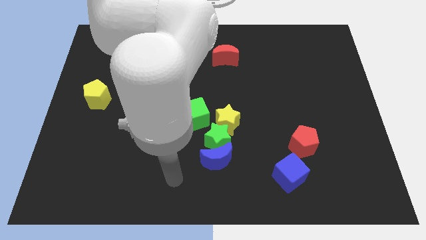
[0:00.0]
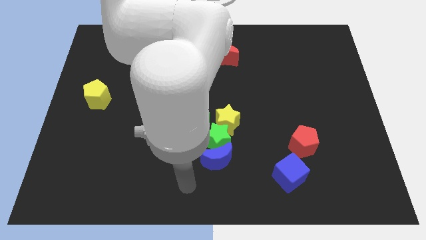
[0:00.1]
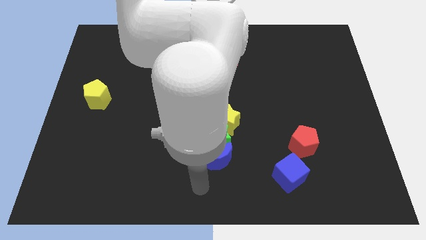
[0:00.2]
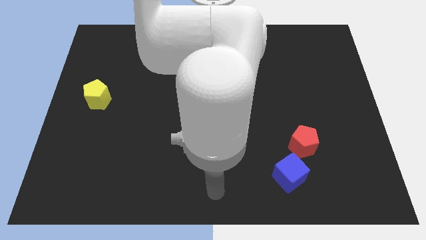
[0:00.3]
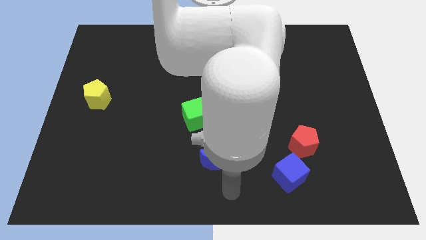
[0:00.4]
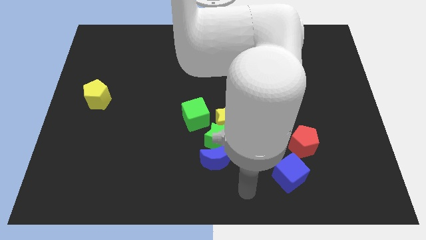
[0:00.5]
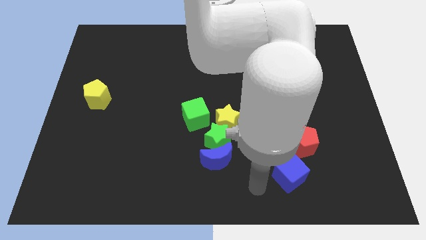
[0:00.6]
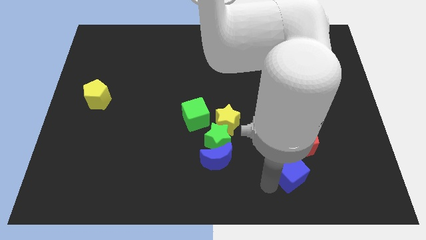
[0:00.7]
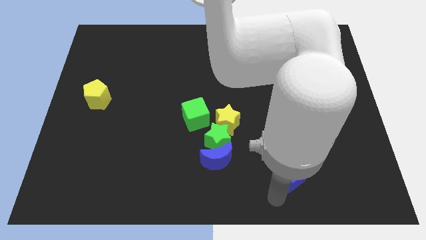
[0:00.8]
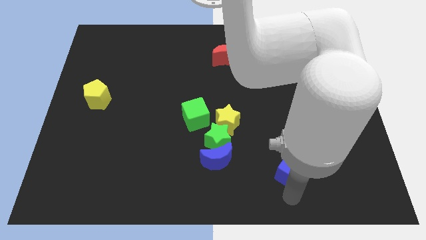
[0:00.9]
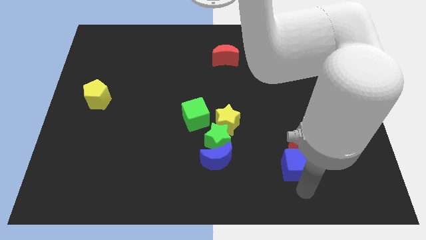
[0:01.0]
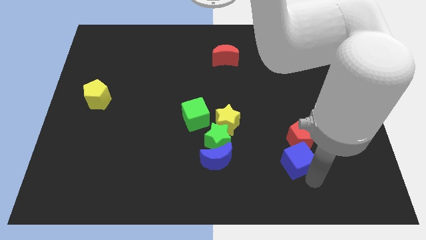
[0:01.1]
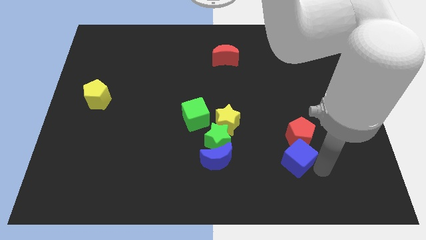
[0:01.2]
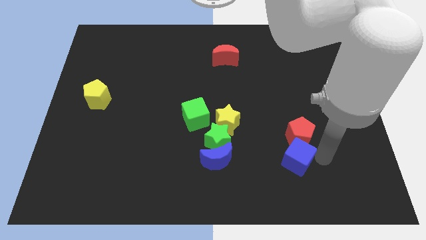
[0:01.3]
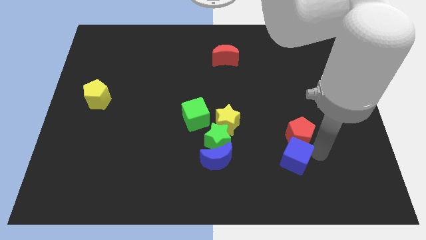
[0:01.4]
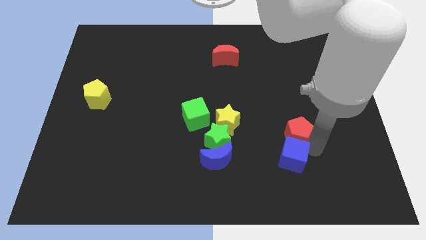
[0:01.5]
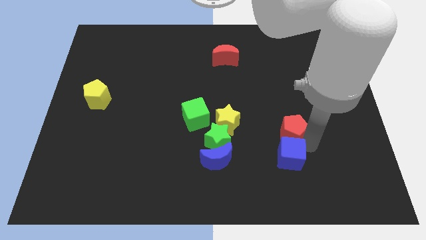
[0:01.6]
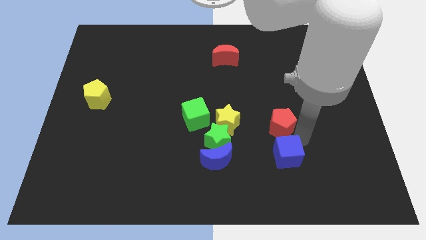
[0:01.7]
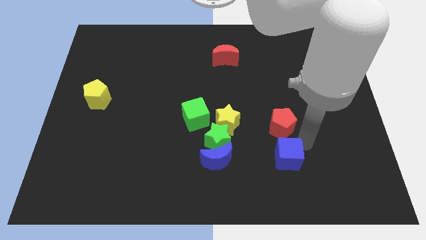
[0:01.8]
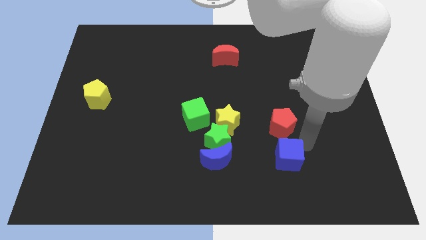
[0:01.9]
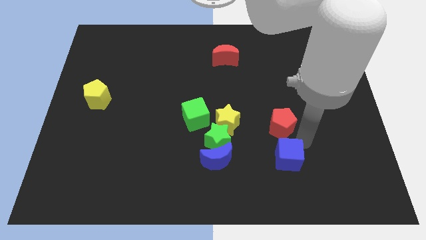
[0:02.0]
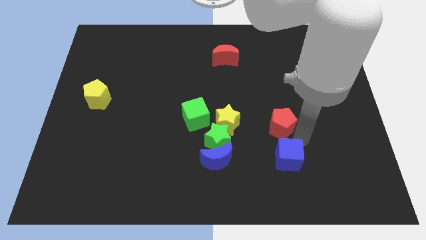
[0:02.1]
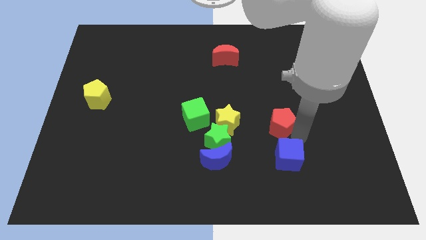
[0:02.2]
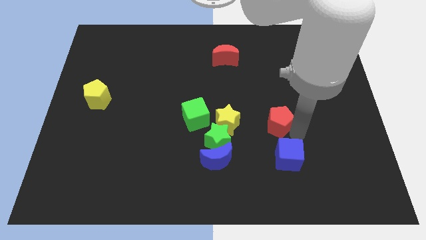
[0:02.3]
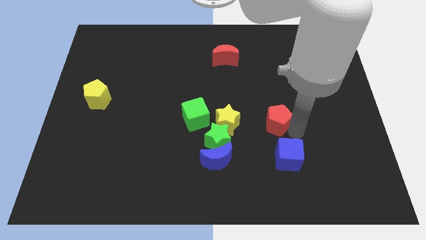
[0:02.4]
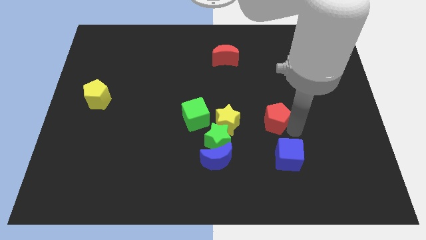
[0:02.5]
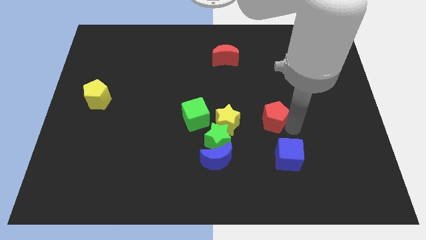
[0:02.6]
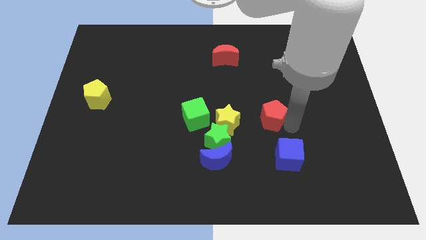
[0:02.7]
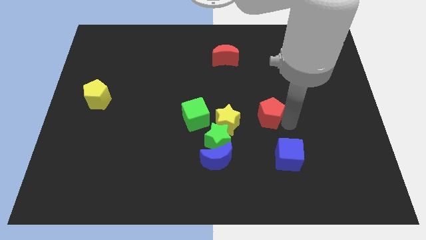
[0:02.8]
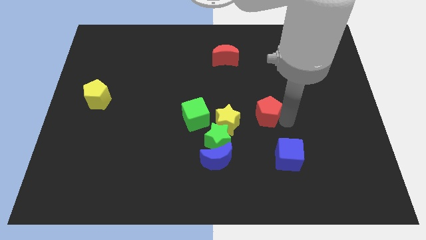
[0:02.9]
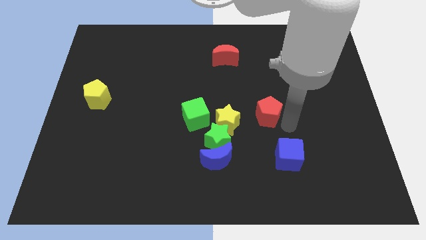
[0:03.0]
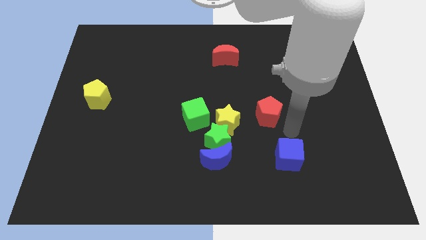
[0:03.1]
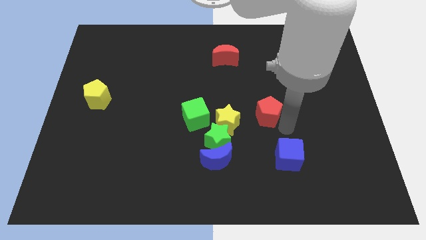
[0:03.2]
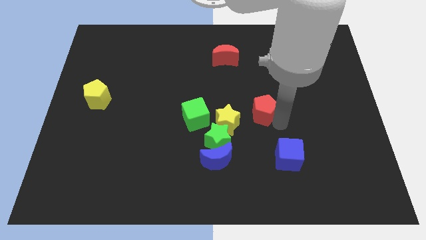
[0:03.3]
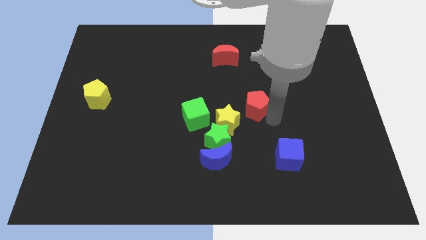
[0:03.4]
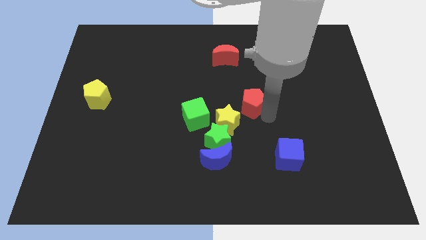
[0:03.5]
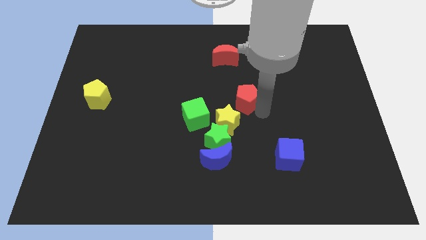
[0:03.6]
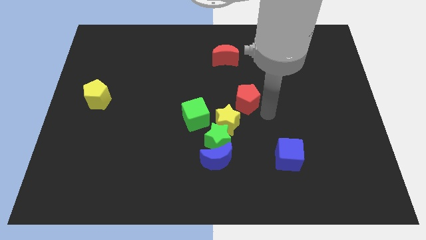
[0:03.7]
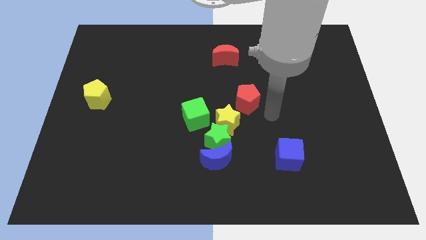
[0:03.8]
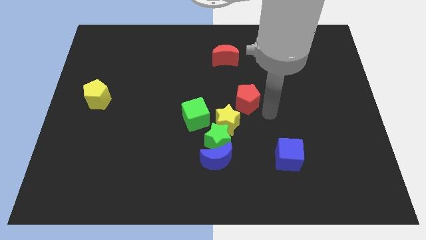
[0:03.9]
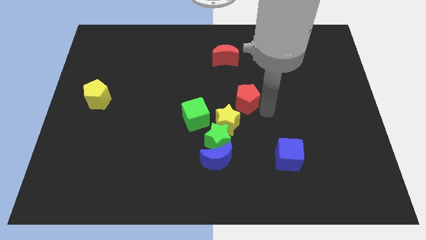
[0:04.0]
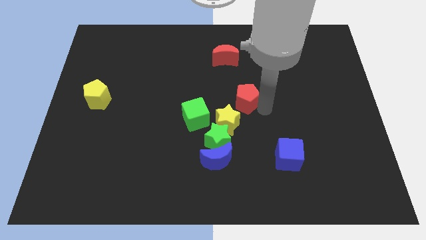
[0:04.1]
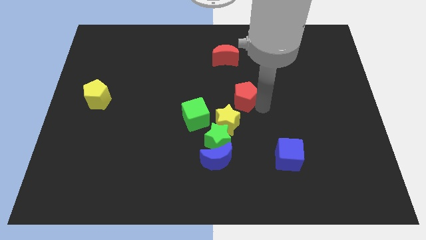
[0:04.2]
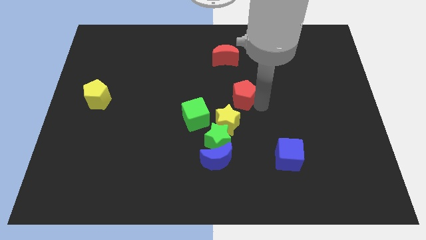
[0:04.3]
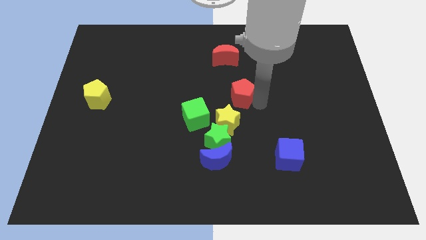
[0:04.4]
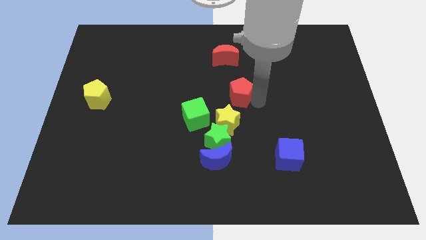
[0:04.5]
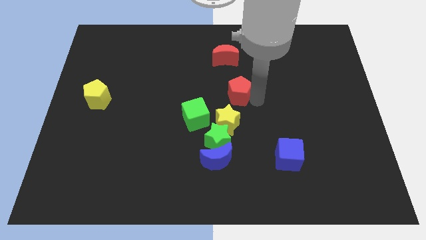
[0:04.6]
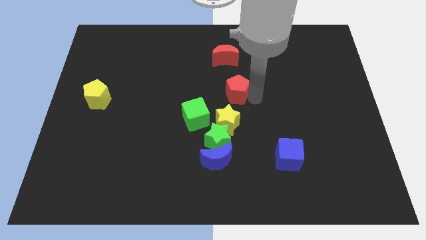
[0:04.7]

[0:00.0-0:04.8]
move the red pentagon diagonally up and left

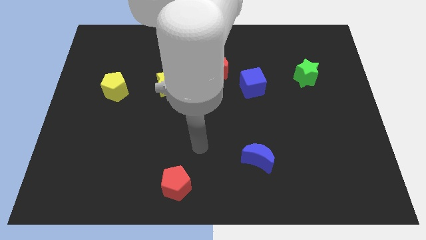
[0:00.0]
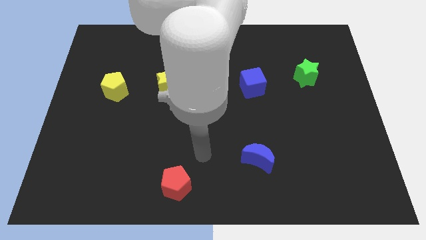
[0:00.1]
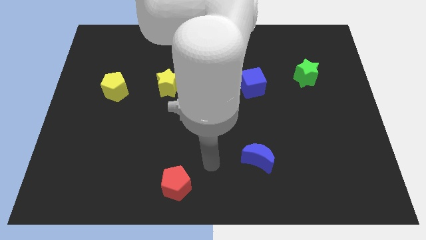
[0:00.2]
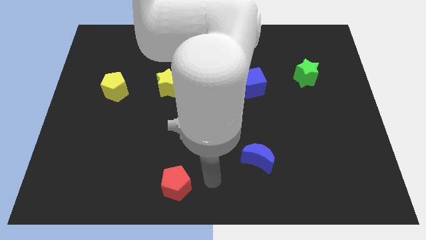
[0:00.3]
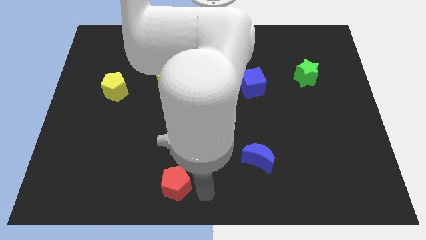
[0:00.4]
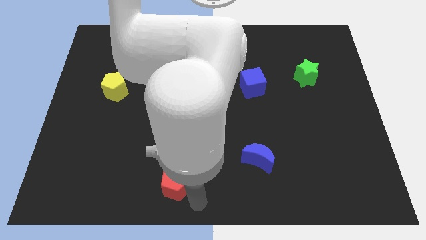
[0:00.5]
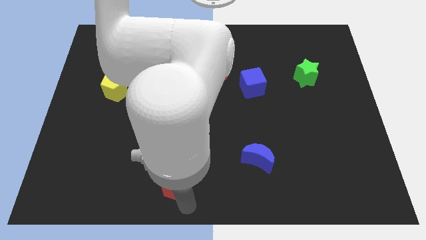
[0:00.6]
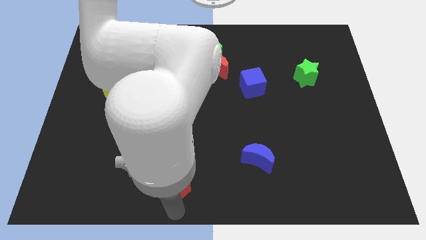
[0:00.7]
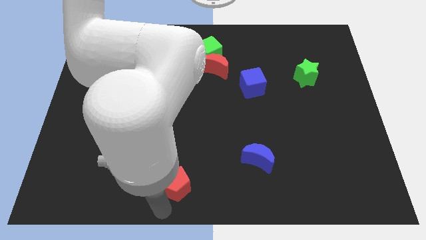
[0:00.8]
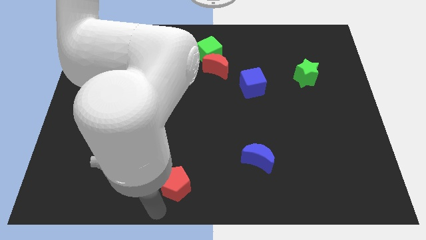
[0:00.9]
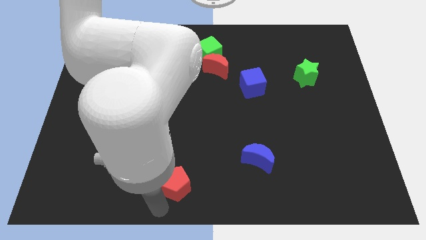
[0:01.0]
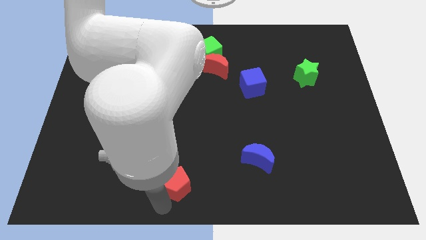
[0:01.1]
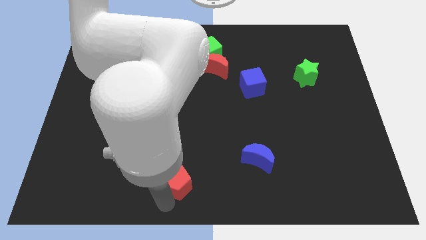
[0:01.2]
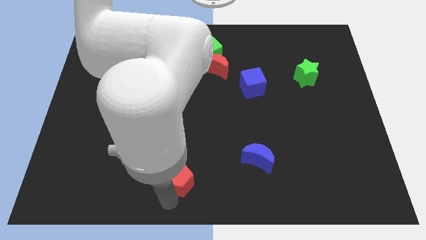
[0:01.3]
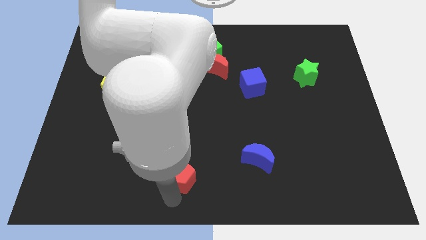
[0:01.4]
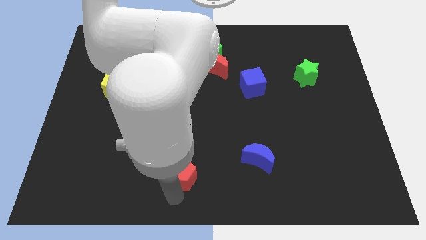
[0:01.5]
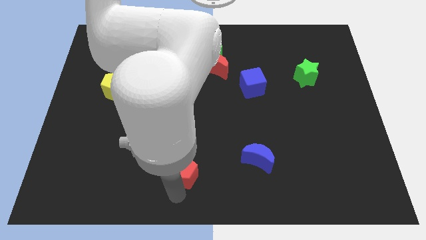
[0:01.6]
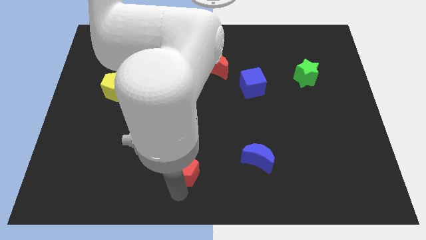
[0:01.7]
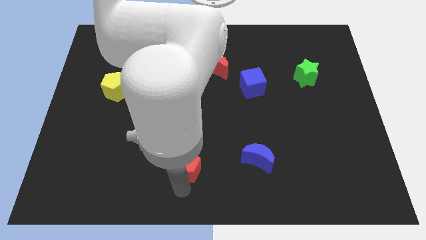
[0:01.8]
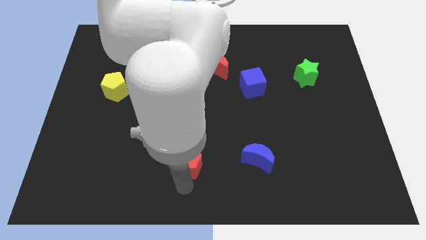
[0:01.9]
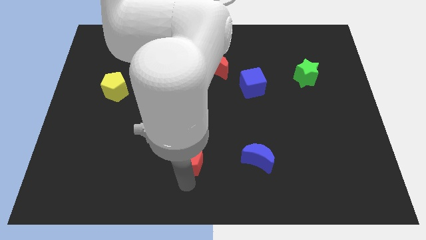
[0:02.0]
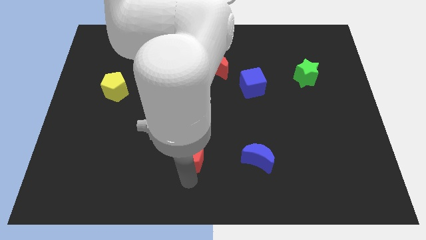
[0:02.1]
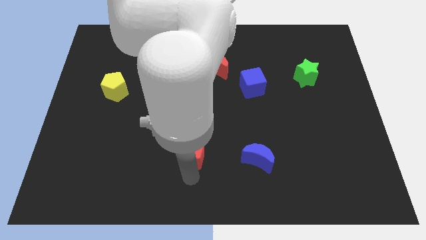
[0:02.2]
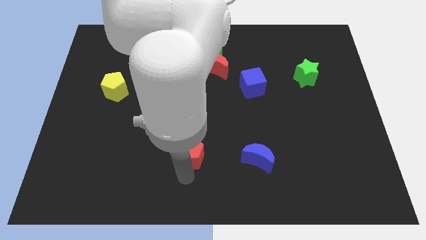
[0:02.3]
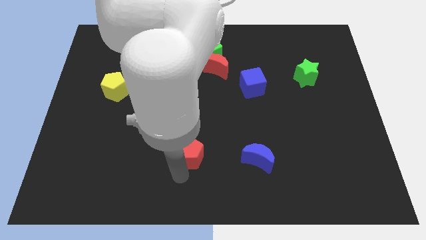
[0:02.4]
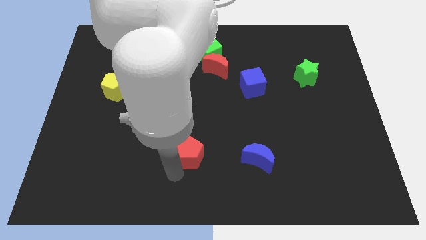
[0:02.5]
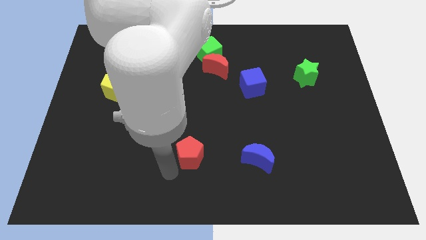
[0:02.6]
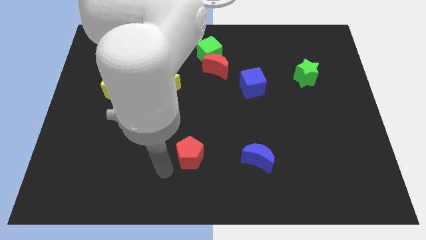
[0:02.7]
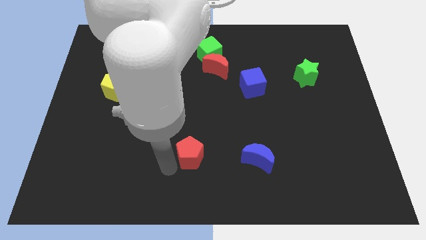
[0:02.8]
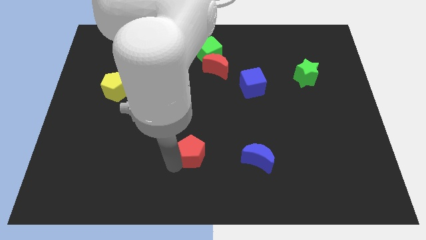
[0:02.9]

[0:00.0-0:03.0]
slide the red pentagon upwards and to the right a little
